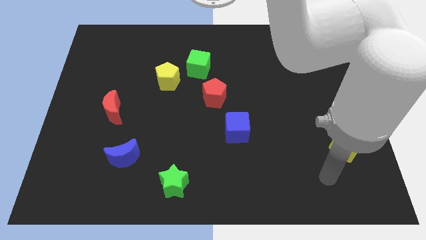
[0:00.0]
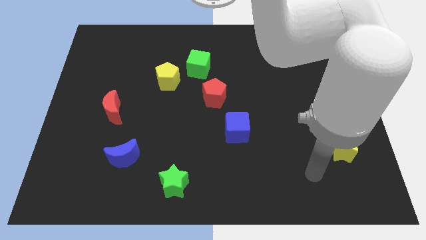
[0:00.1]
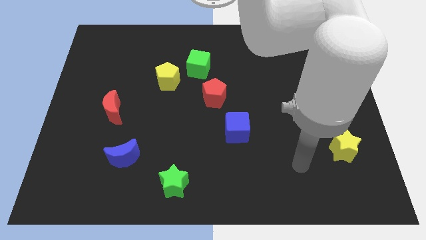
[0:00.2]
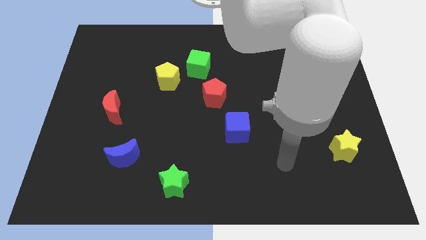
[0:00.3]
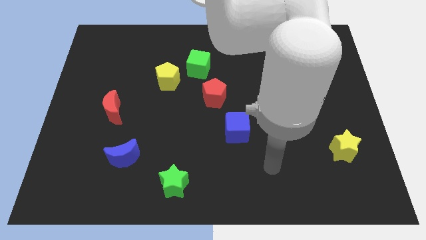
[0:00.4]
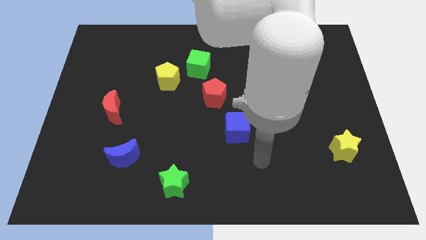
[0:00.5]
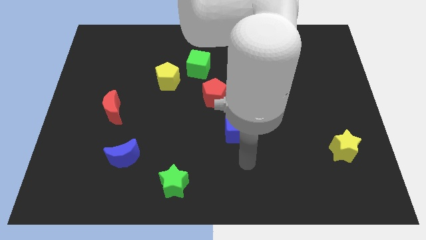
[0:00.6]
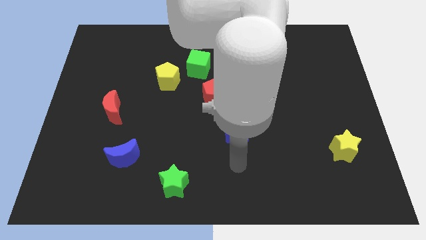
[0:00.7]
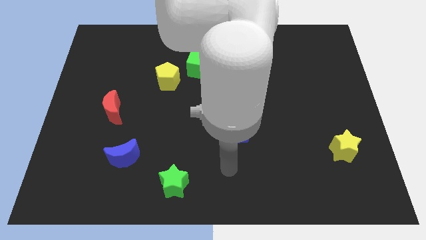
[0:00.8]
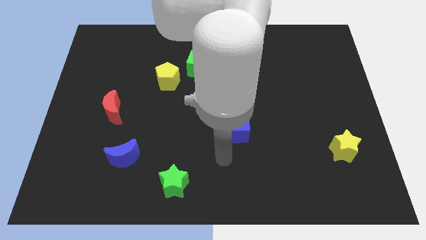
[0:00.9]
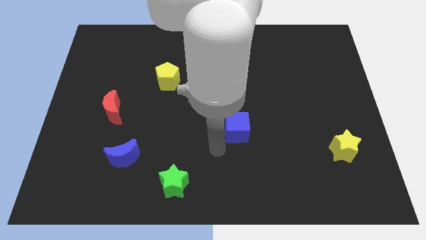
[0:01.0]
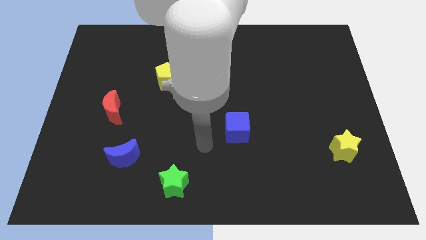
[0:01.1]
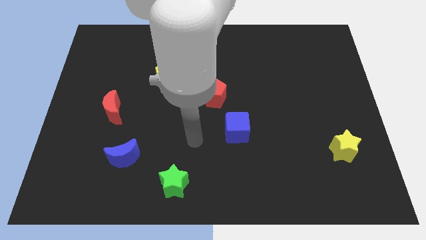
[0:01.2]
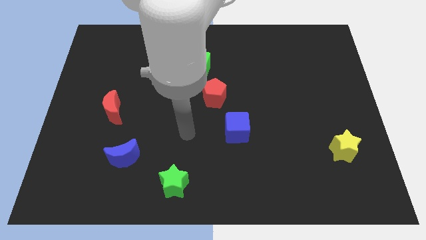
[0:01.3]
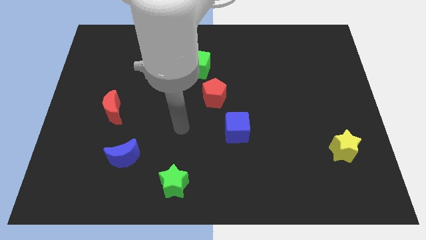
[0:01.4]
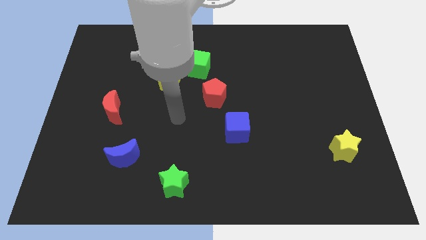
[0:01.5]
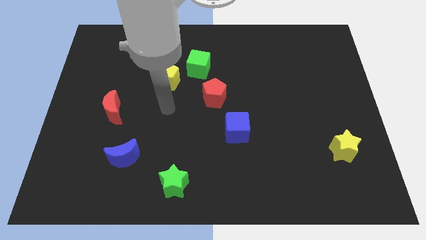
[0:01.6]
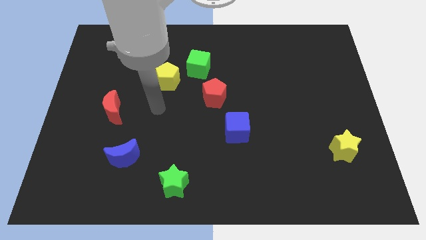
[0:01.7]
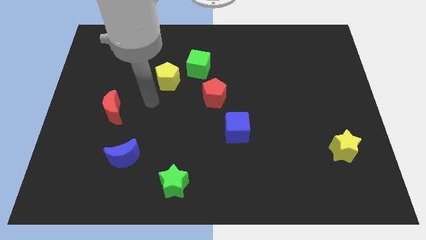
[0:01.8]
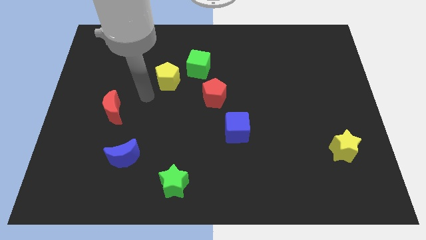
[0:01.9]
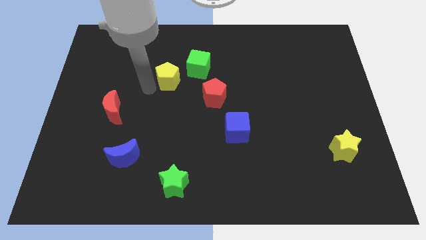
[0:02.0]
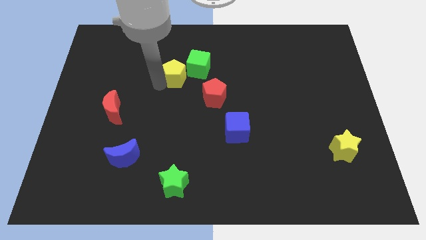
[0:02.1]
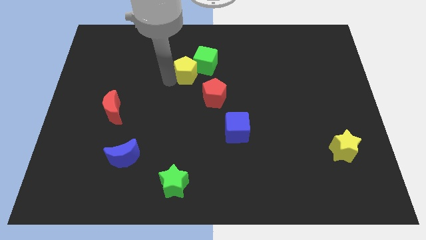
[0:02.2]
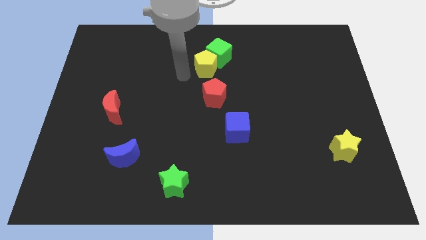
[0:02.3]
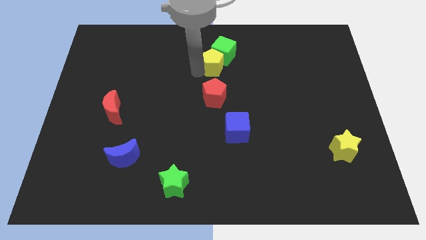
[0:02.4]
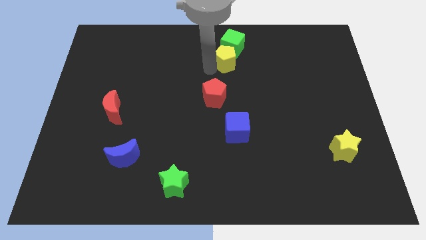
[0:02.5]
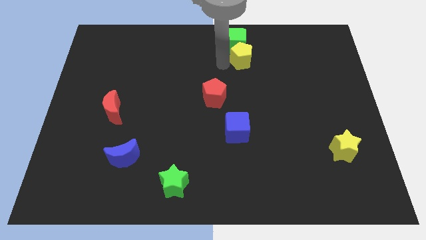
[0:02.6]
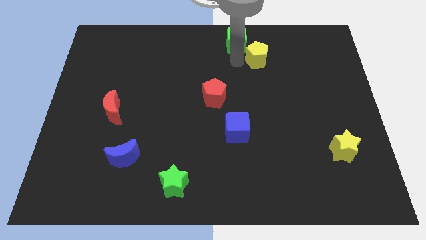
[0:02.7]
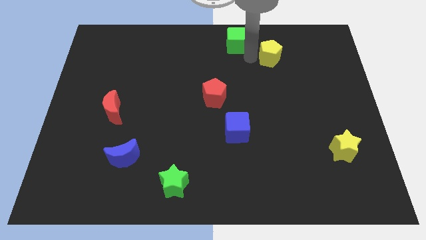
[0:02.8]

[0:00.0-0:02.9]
move the green cube away from the yellow pentagon

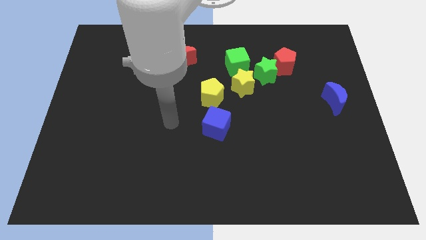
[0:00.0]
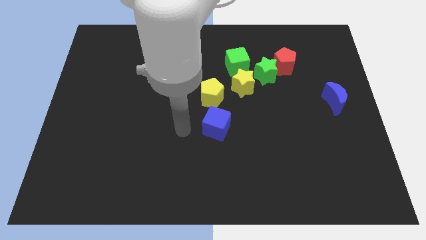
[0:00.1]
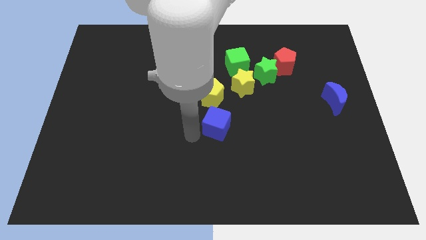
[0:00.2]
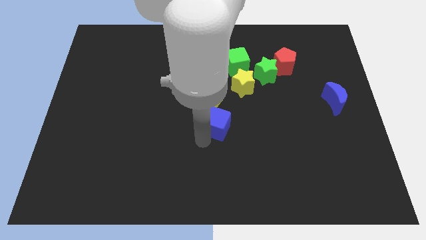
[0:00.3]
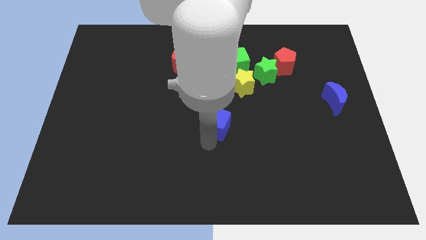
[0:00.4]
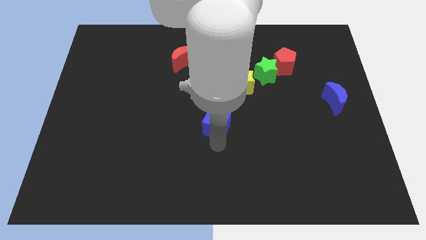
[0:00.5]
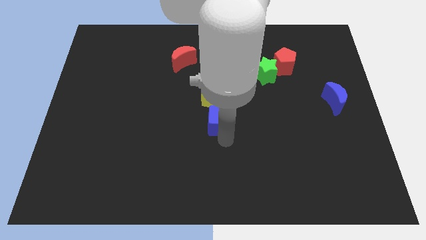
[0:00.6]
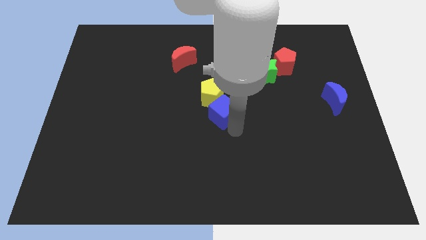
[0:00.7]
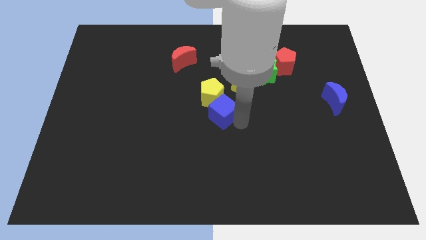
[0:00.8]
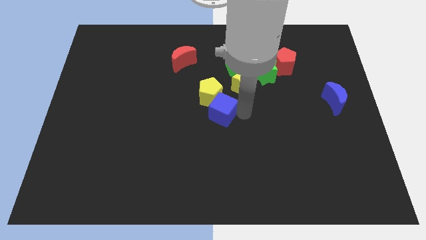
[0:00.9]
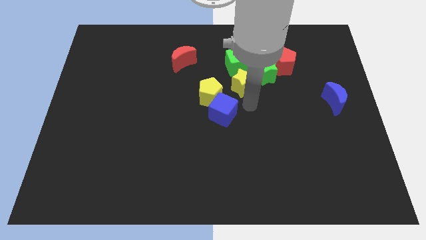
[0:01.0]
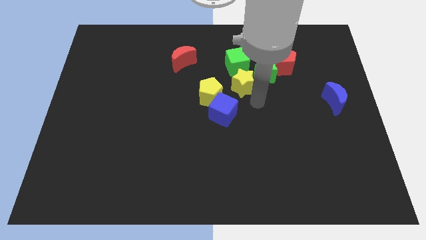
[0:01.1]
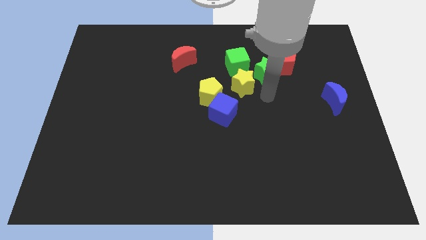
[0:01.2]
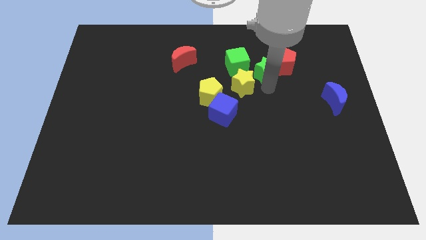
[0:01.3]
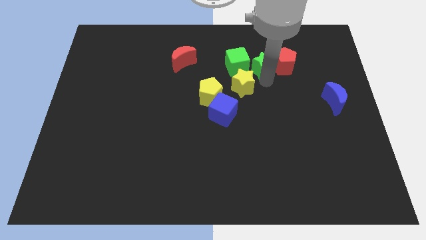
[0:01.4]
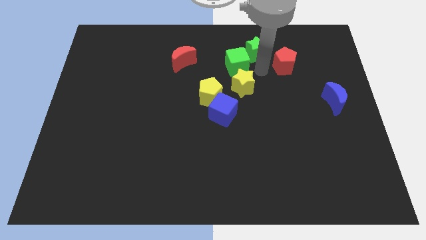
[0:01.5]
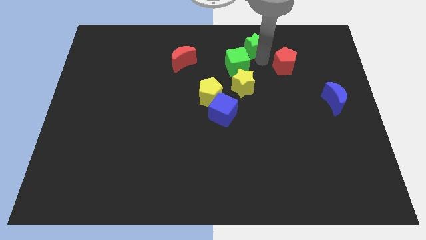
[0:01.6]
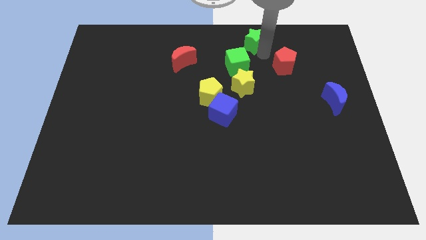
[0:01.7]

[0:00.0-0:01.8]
move the red pentagon away from the green star

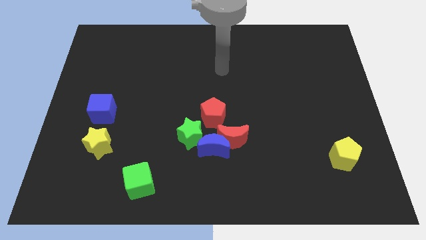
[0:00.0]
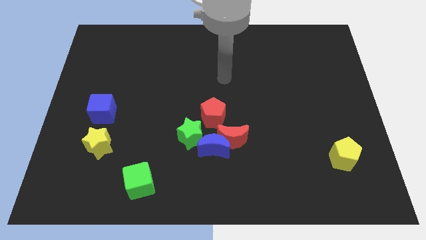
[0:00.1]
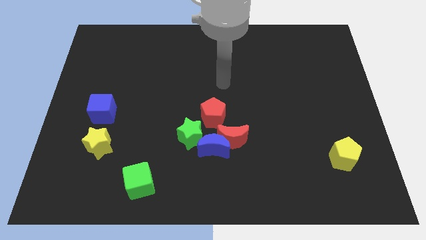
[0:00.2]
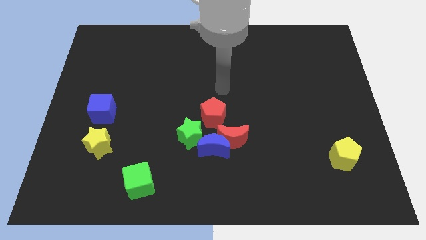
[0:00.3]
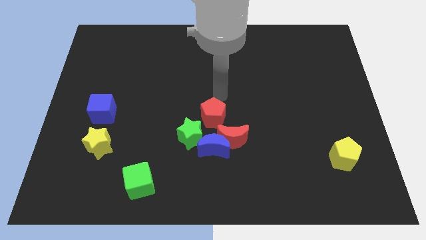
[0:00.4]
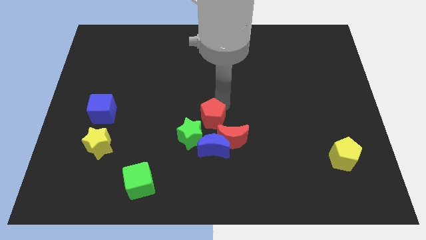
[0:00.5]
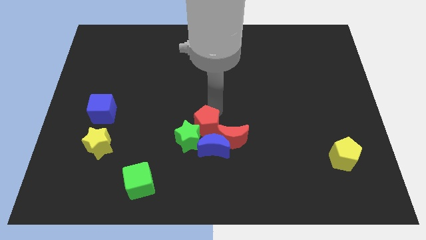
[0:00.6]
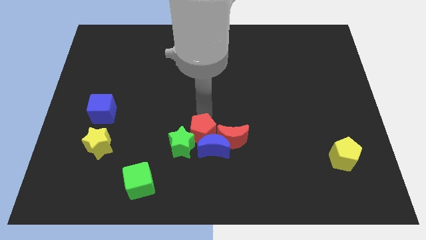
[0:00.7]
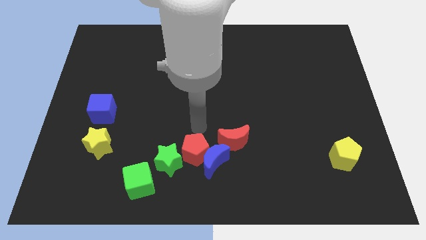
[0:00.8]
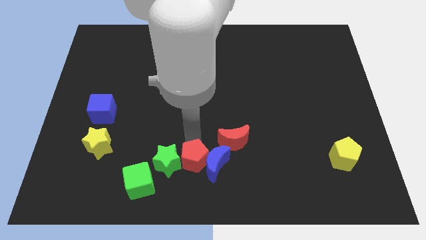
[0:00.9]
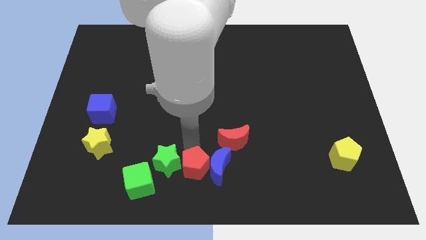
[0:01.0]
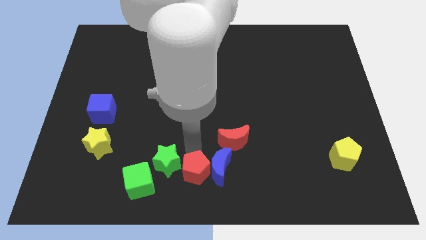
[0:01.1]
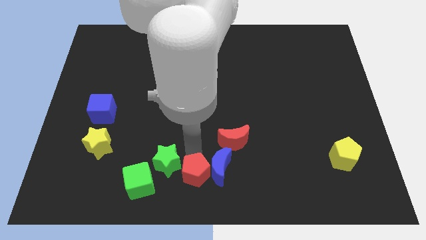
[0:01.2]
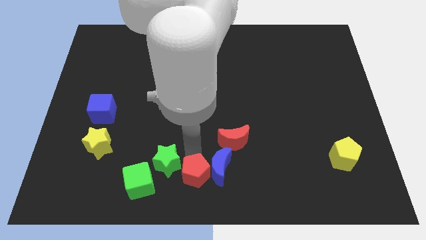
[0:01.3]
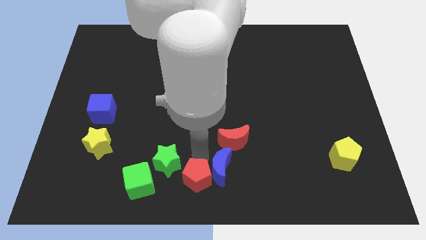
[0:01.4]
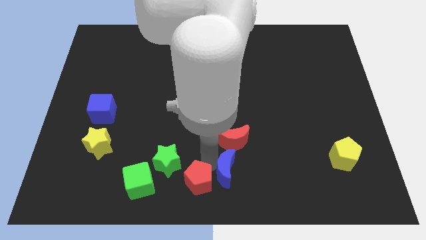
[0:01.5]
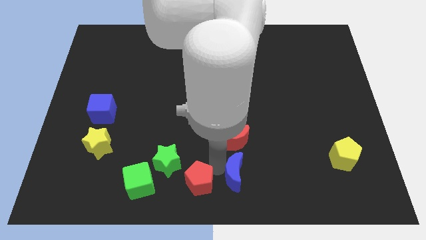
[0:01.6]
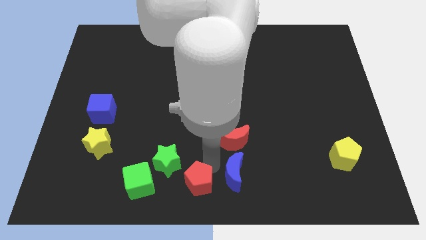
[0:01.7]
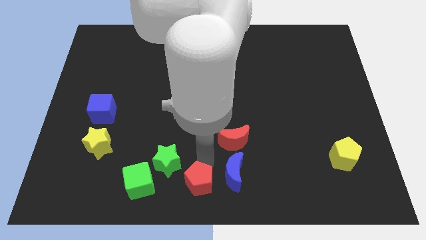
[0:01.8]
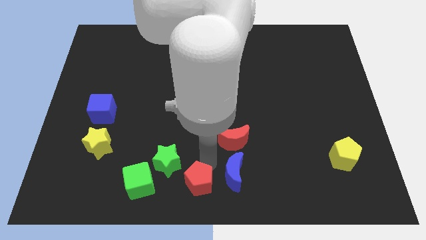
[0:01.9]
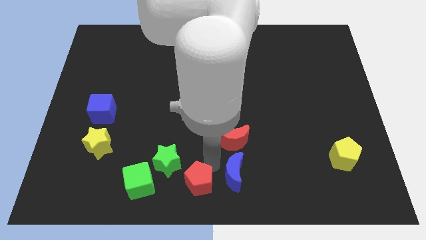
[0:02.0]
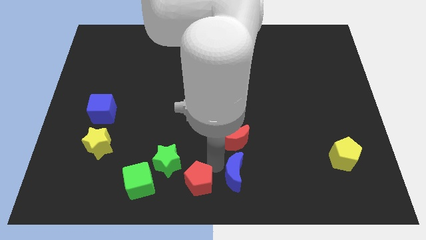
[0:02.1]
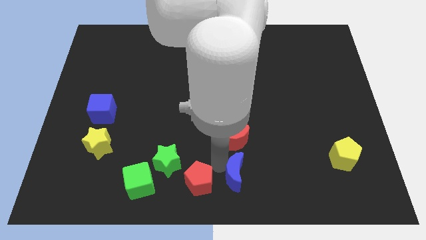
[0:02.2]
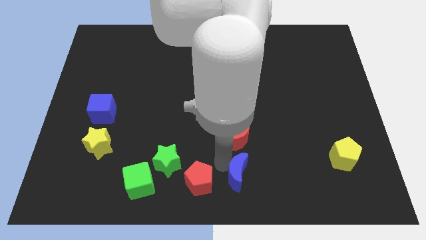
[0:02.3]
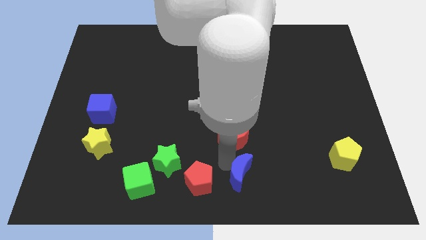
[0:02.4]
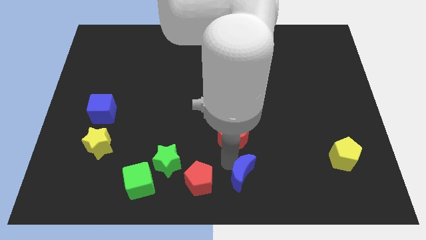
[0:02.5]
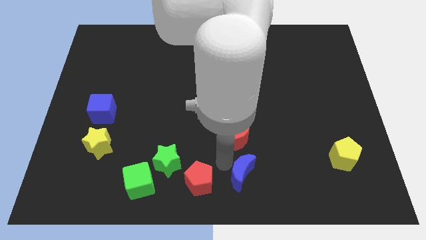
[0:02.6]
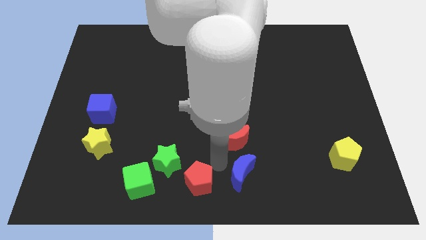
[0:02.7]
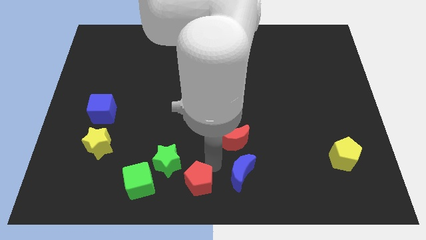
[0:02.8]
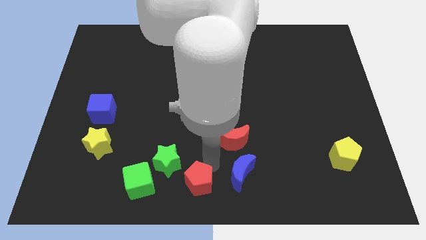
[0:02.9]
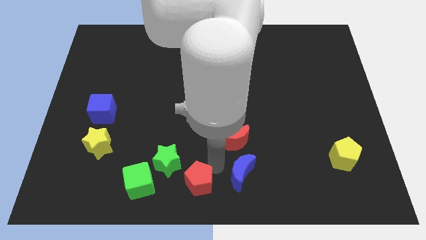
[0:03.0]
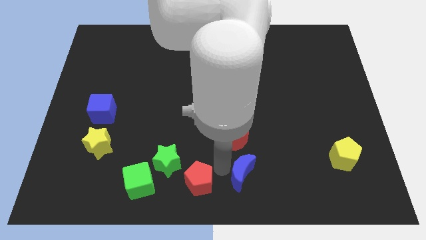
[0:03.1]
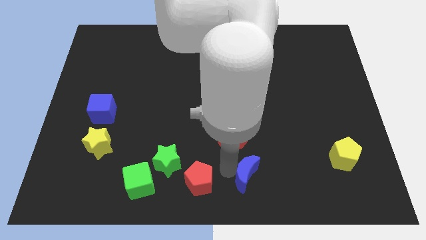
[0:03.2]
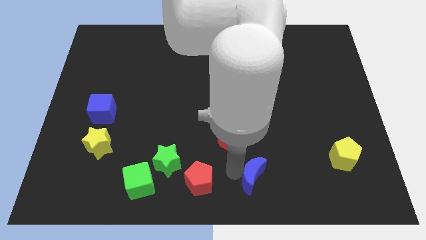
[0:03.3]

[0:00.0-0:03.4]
pull the blue moon apart from the group of blocks

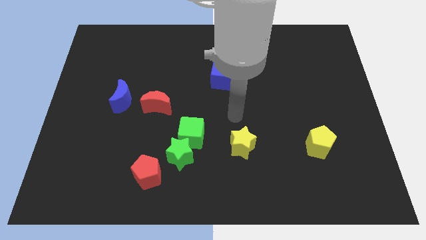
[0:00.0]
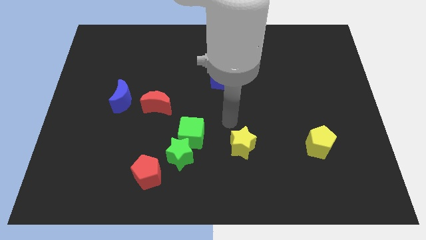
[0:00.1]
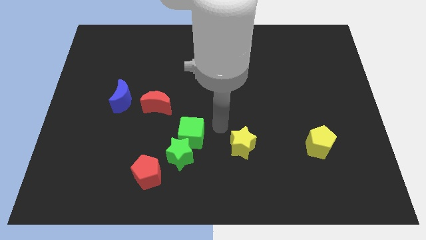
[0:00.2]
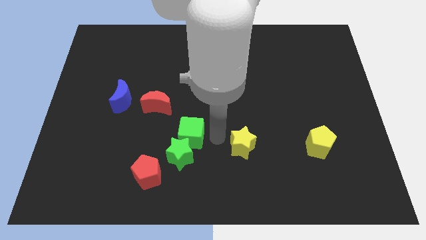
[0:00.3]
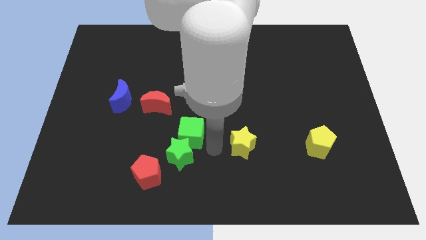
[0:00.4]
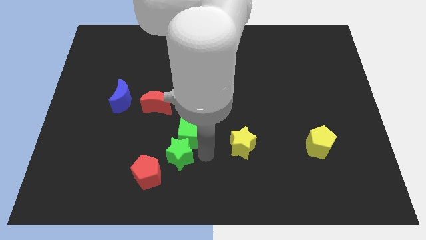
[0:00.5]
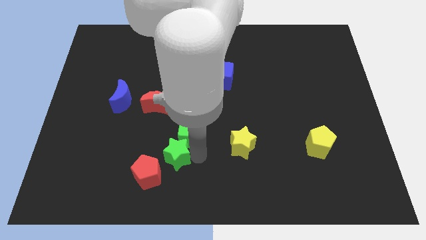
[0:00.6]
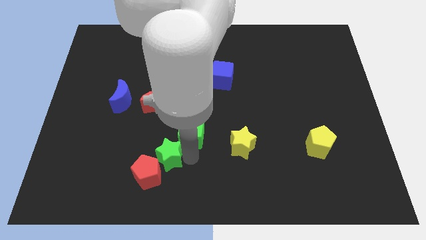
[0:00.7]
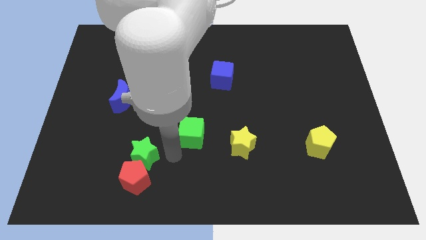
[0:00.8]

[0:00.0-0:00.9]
move the green cube away from the green star

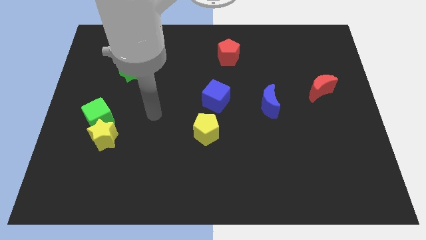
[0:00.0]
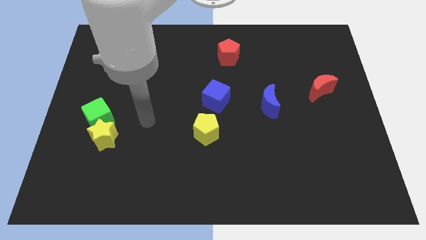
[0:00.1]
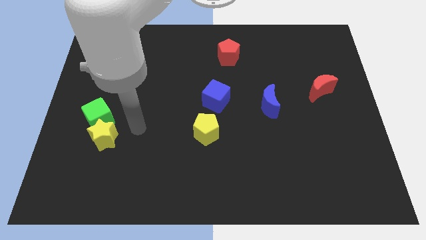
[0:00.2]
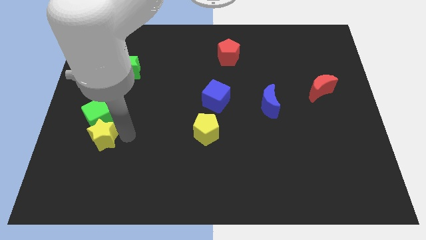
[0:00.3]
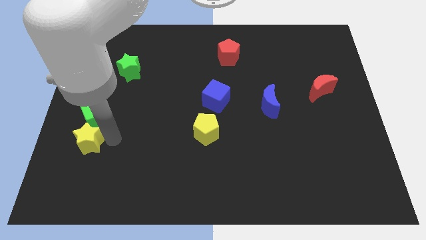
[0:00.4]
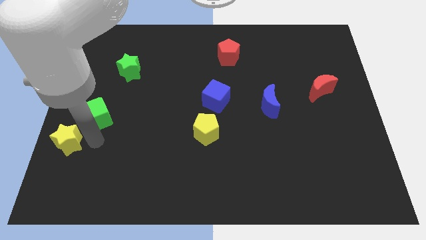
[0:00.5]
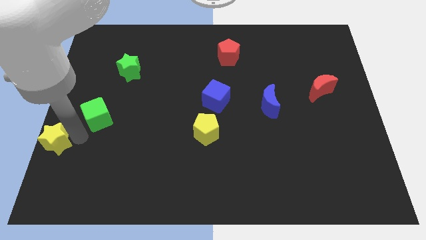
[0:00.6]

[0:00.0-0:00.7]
move the green cube away from the yellow star
